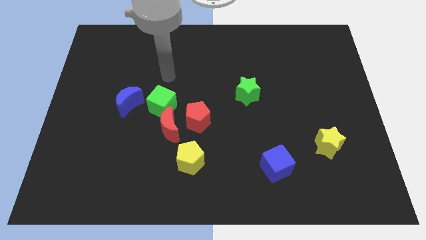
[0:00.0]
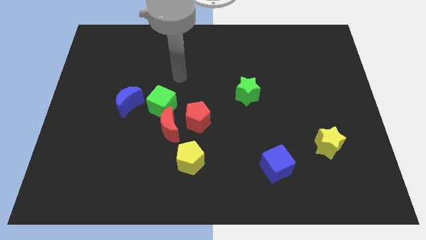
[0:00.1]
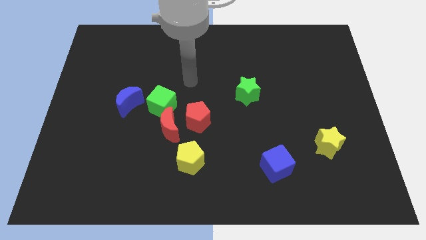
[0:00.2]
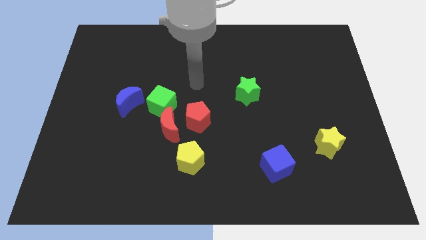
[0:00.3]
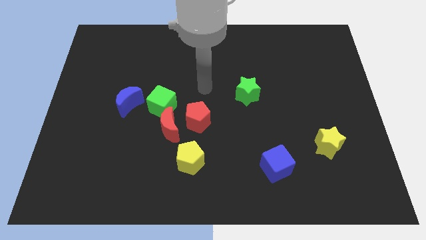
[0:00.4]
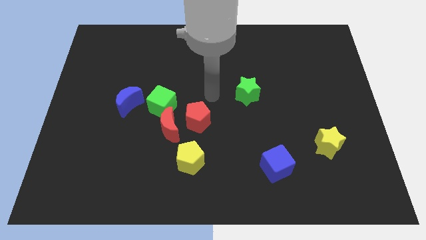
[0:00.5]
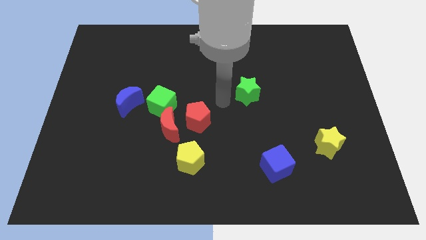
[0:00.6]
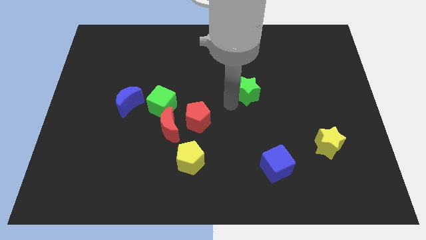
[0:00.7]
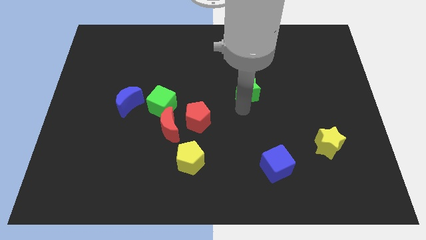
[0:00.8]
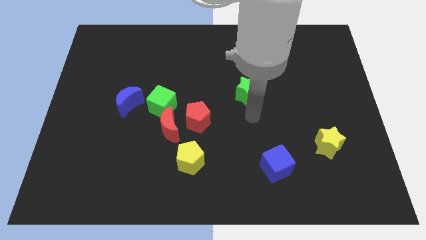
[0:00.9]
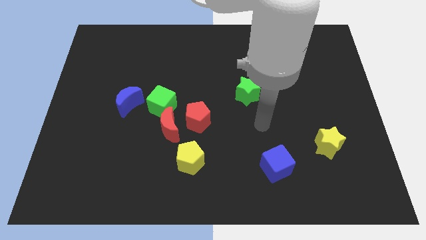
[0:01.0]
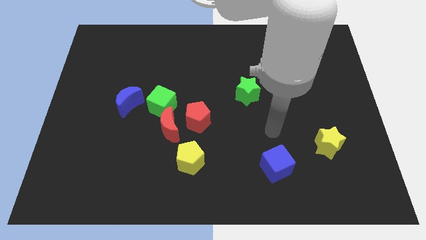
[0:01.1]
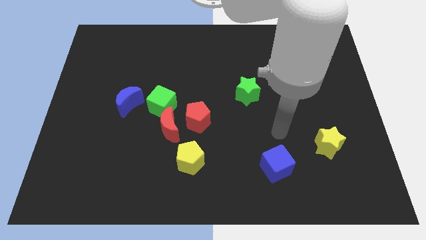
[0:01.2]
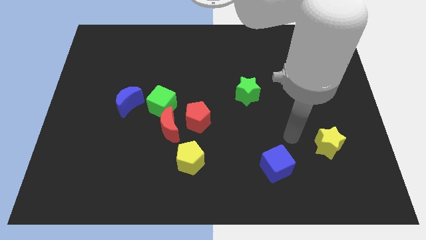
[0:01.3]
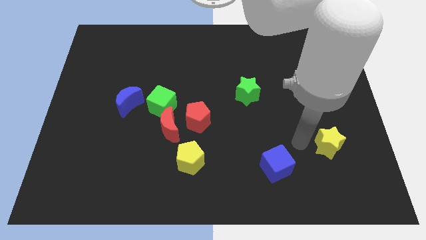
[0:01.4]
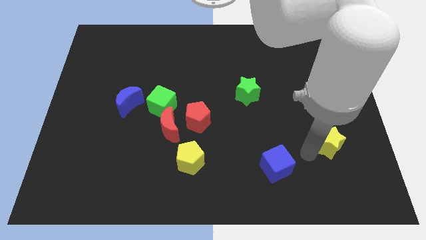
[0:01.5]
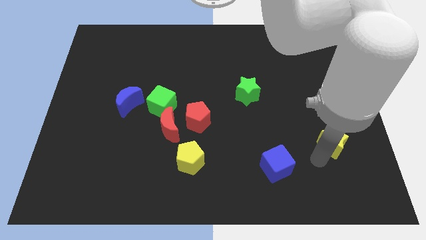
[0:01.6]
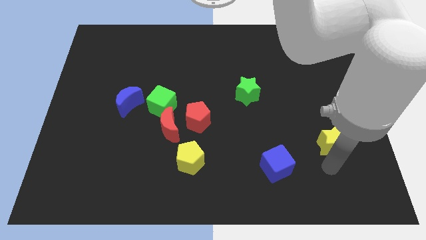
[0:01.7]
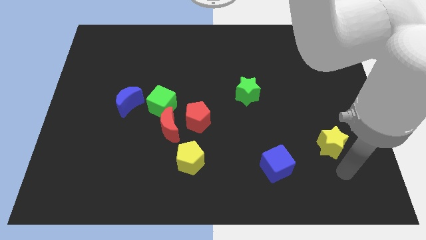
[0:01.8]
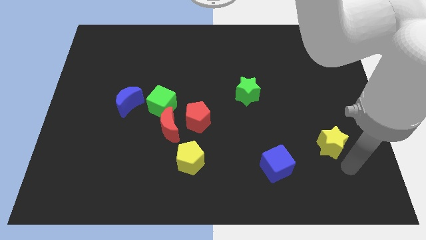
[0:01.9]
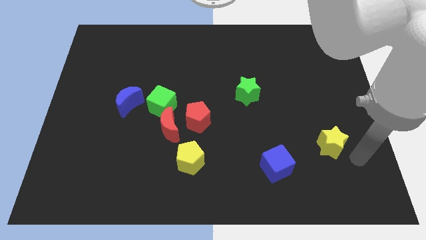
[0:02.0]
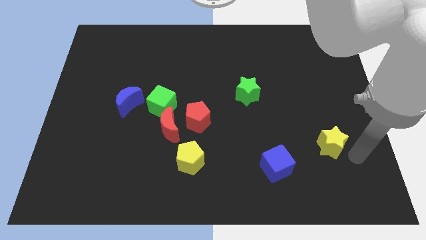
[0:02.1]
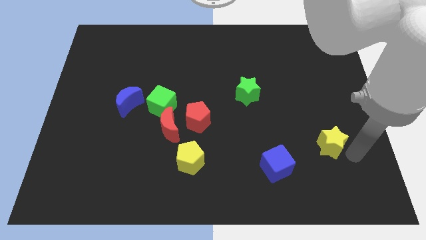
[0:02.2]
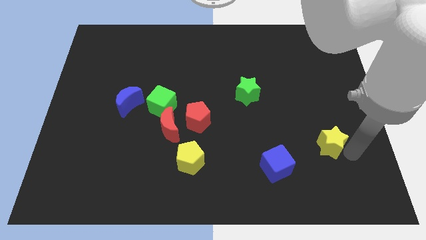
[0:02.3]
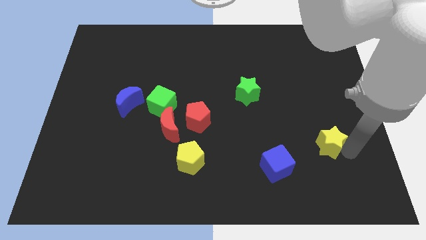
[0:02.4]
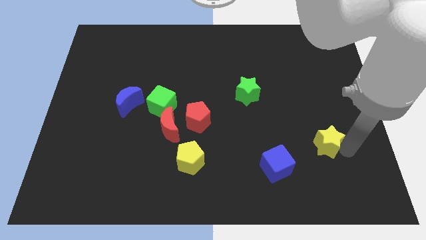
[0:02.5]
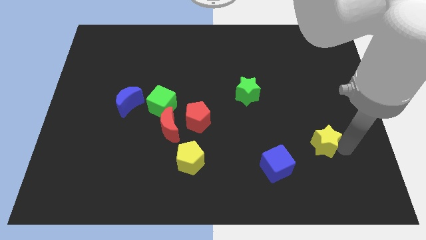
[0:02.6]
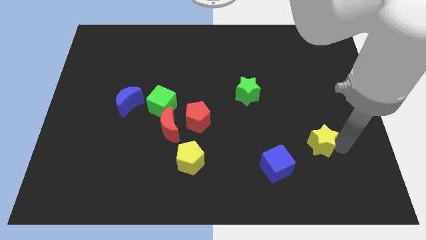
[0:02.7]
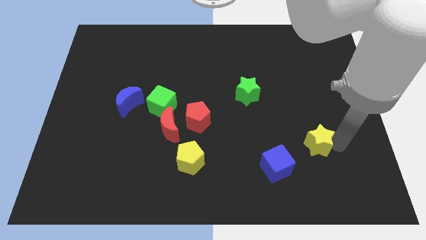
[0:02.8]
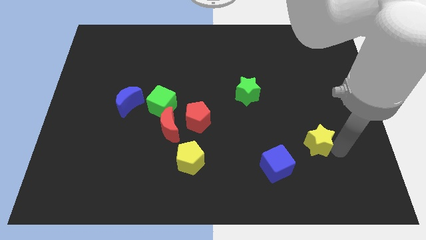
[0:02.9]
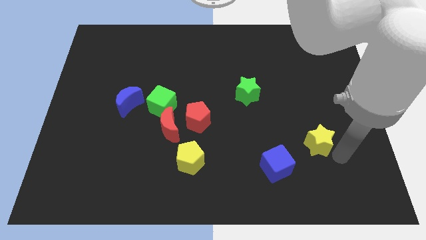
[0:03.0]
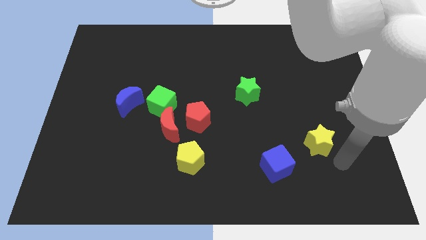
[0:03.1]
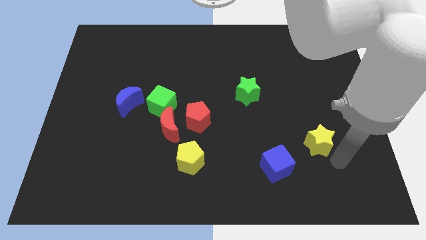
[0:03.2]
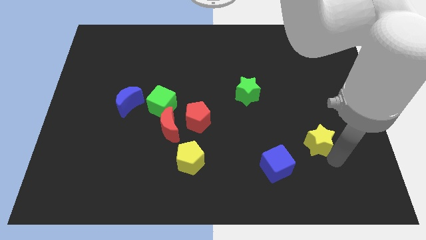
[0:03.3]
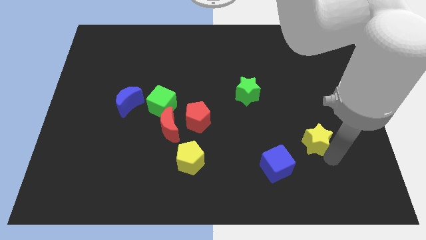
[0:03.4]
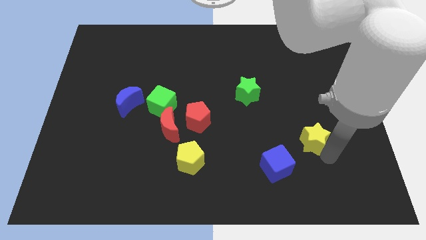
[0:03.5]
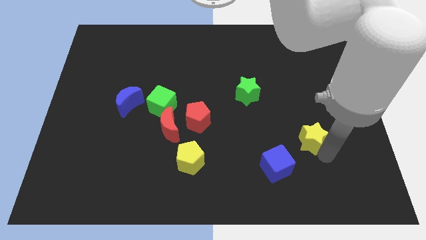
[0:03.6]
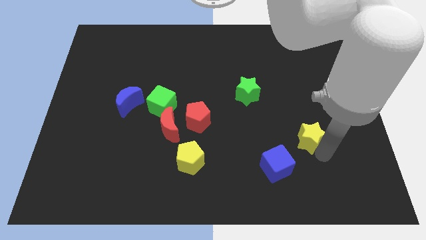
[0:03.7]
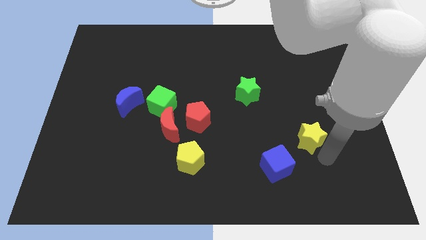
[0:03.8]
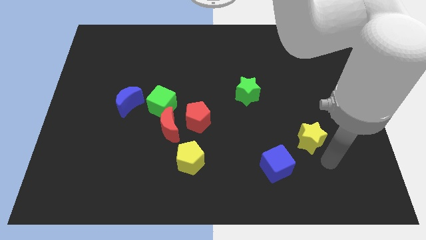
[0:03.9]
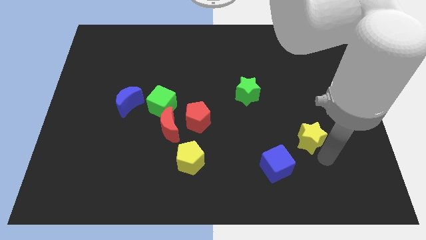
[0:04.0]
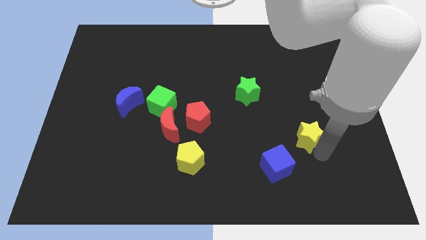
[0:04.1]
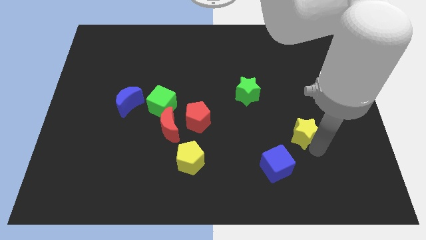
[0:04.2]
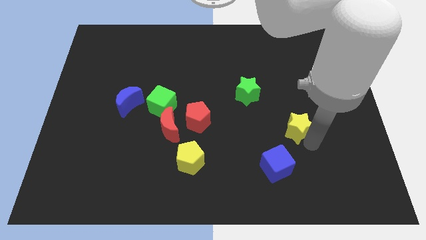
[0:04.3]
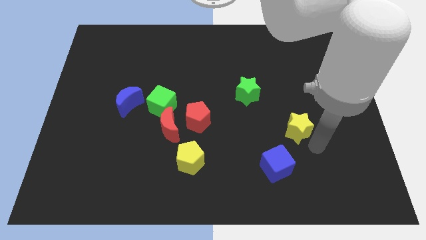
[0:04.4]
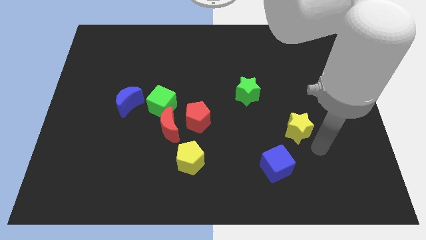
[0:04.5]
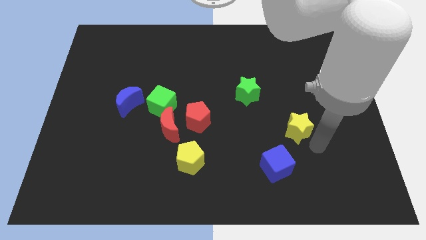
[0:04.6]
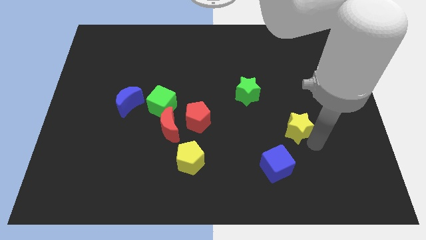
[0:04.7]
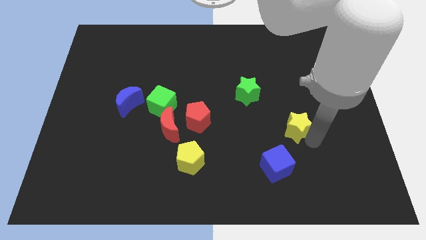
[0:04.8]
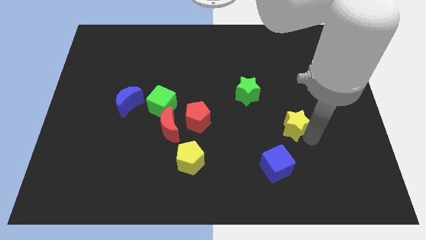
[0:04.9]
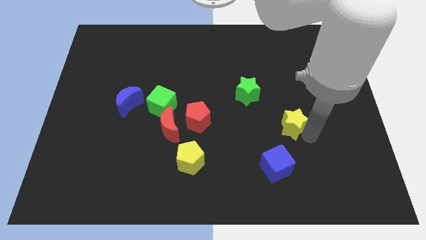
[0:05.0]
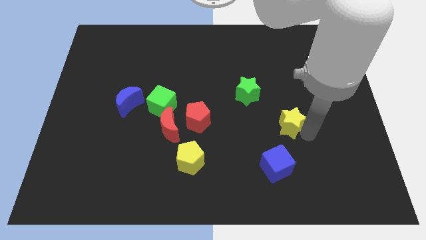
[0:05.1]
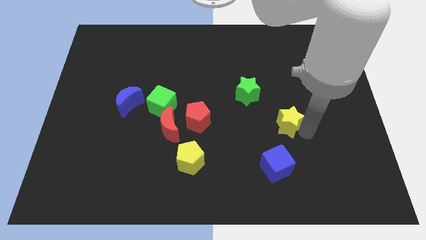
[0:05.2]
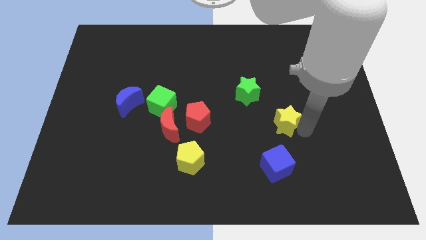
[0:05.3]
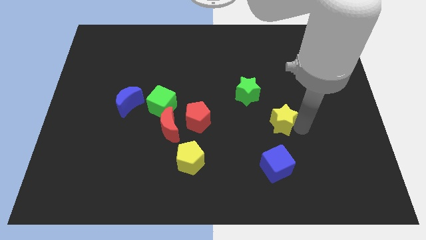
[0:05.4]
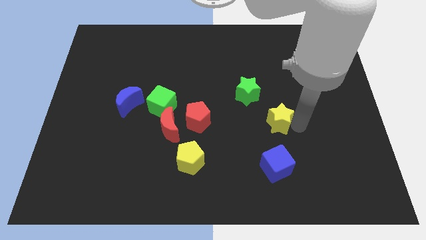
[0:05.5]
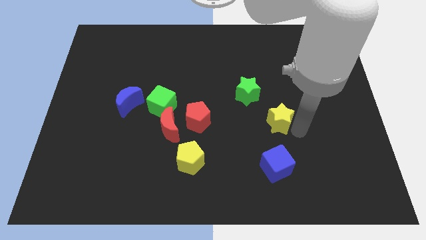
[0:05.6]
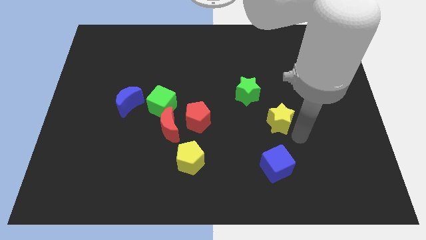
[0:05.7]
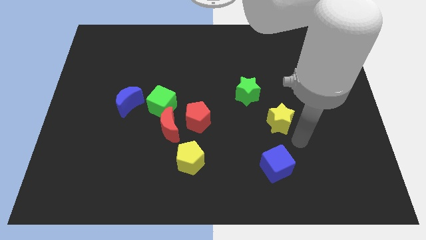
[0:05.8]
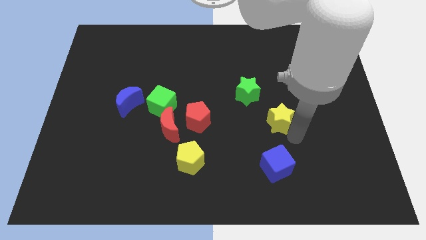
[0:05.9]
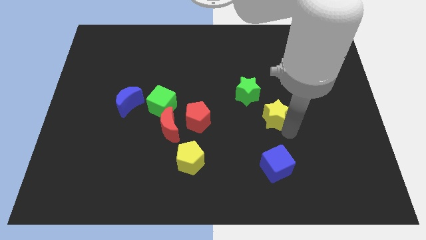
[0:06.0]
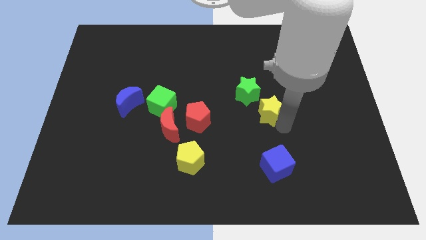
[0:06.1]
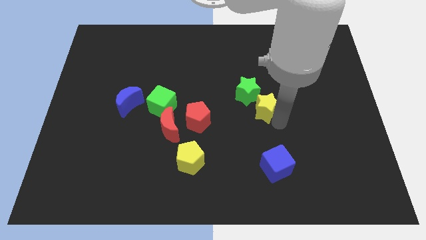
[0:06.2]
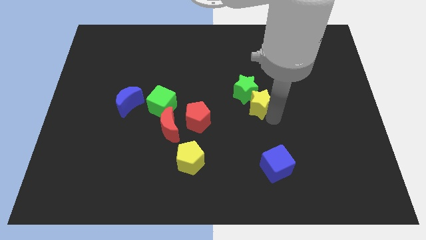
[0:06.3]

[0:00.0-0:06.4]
put the yellow star next to the green star
